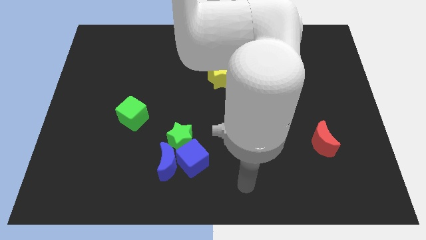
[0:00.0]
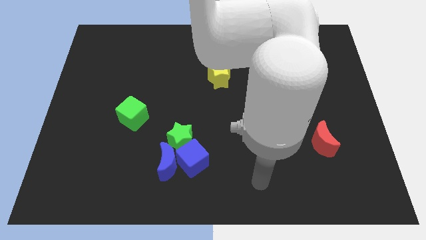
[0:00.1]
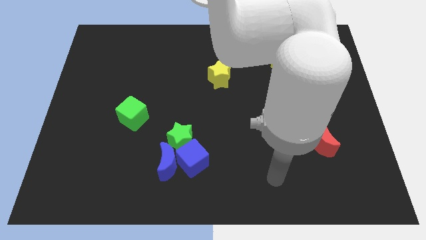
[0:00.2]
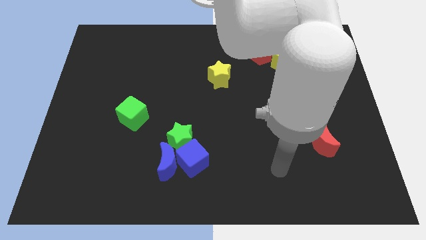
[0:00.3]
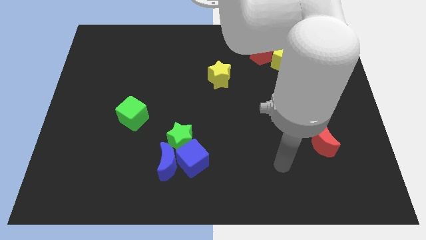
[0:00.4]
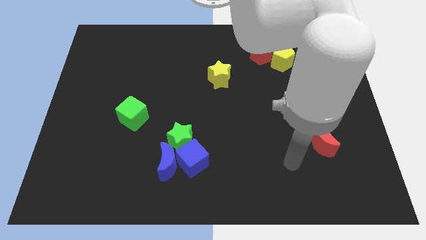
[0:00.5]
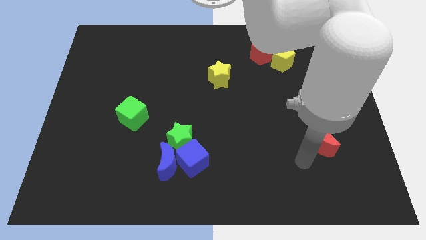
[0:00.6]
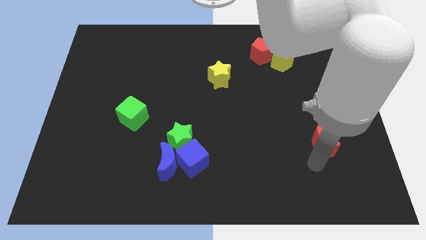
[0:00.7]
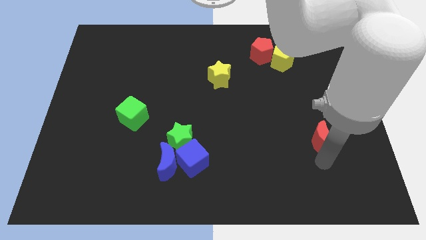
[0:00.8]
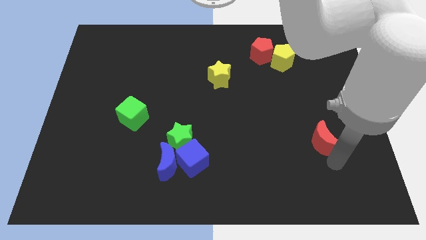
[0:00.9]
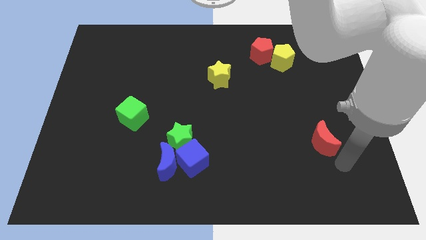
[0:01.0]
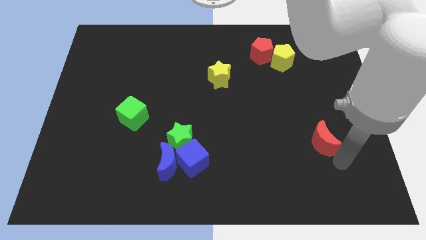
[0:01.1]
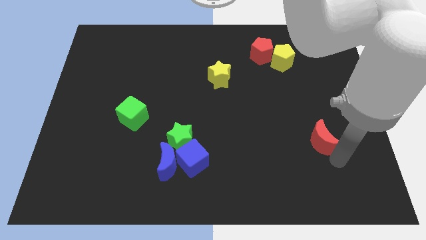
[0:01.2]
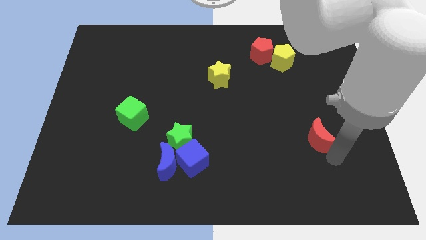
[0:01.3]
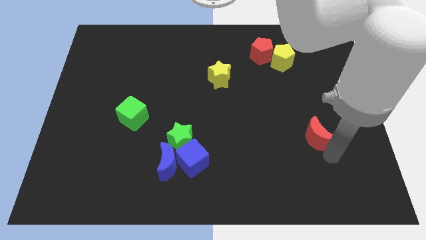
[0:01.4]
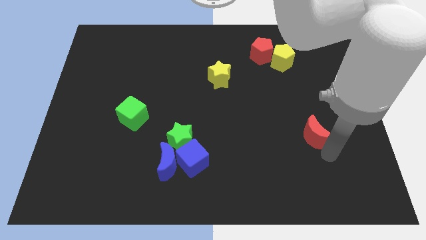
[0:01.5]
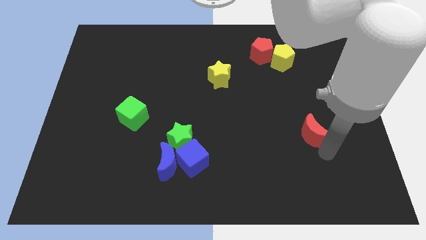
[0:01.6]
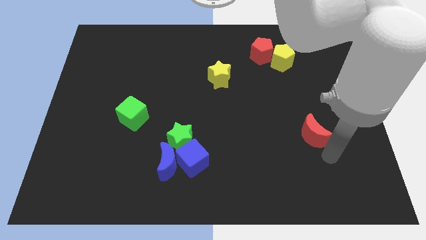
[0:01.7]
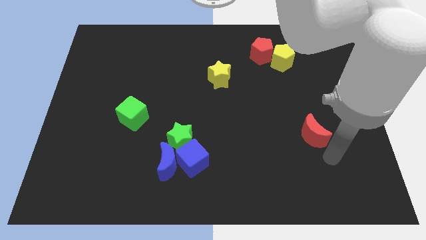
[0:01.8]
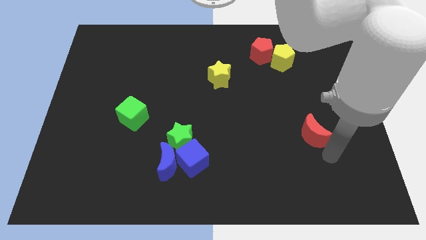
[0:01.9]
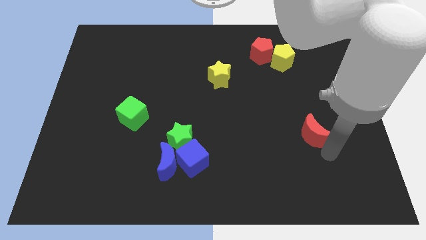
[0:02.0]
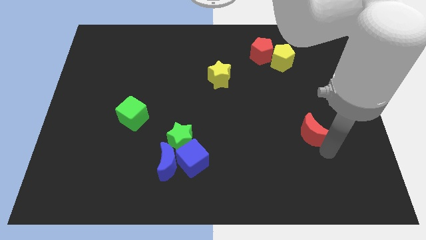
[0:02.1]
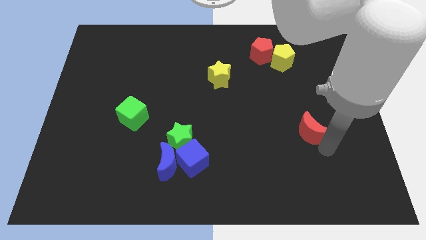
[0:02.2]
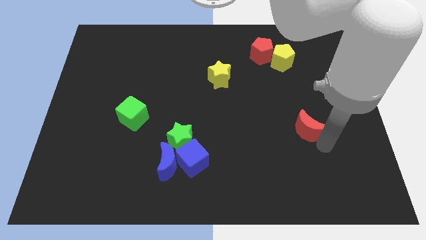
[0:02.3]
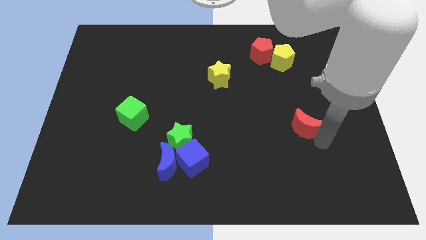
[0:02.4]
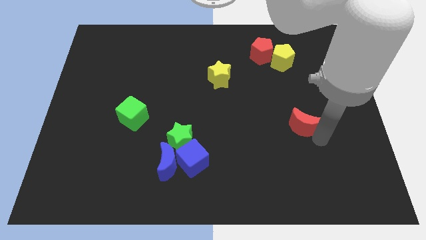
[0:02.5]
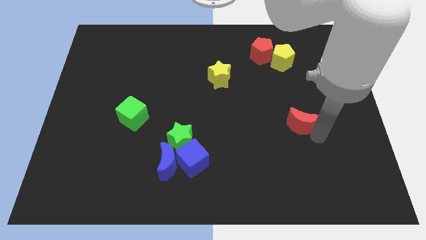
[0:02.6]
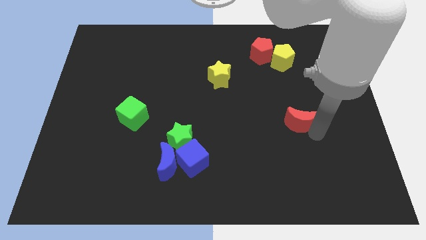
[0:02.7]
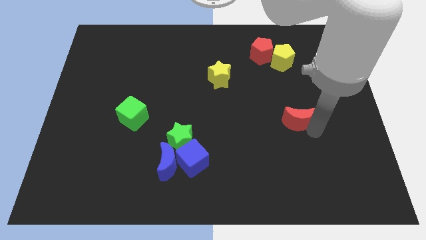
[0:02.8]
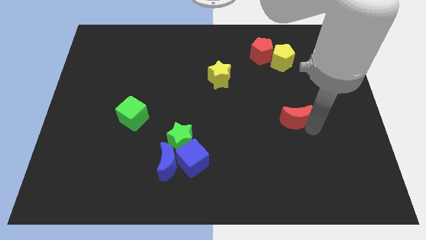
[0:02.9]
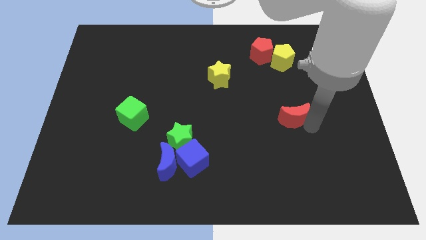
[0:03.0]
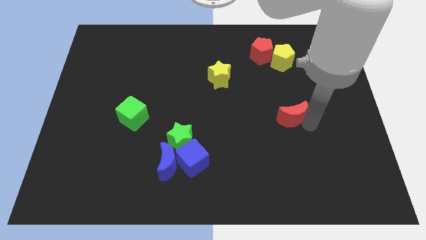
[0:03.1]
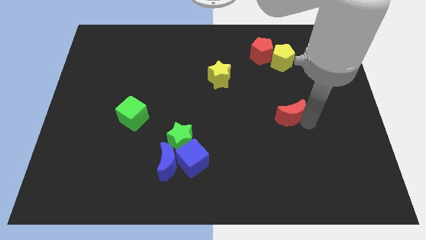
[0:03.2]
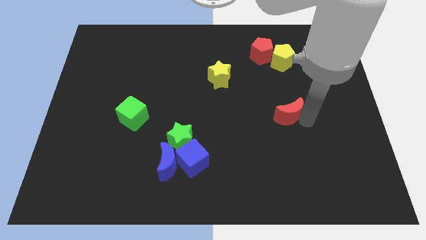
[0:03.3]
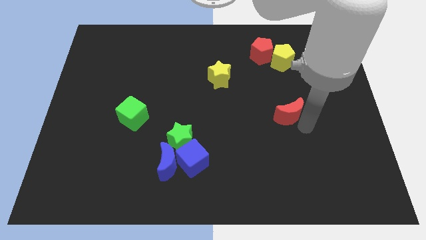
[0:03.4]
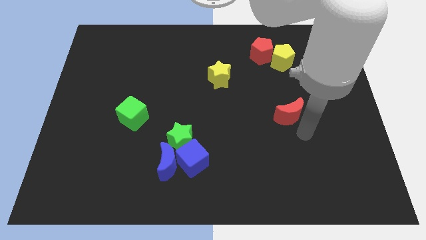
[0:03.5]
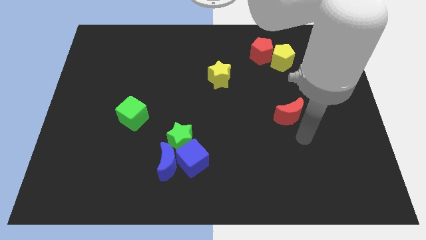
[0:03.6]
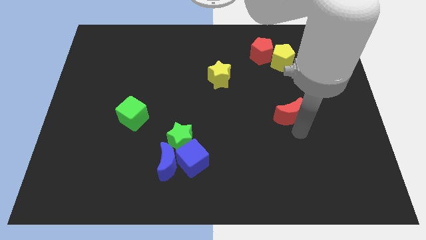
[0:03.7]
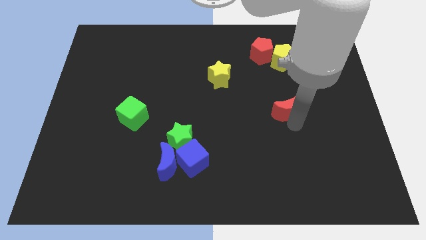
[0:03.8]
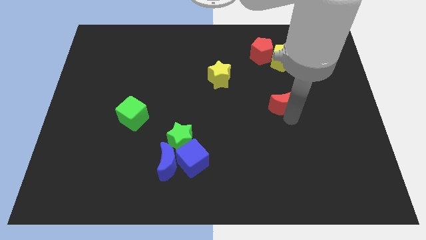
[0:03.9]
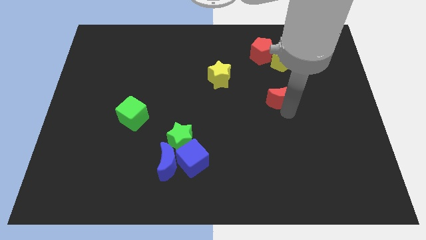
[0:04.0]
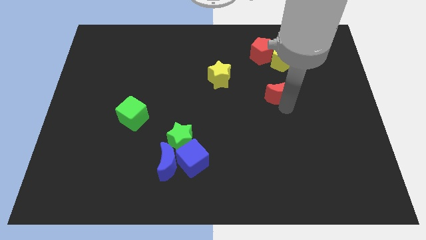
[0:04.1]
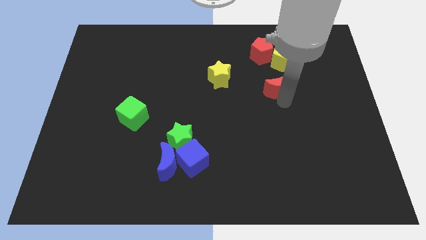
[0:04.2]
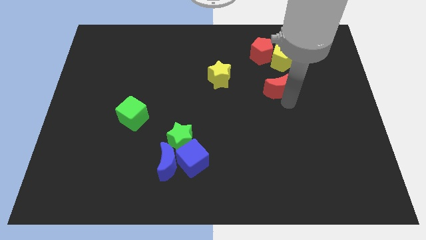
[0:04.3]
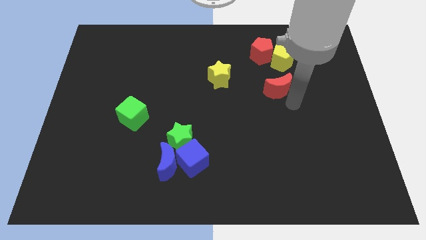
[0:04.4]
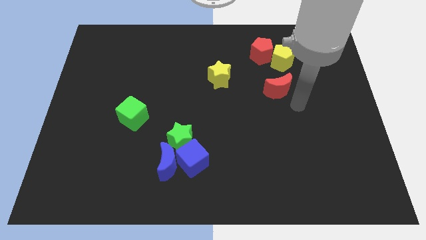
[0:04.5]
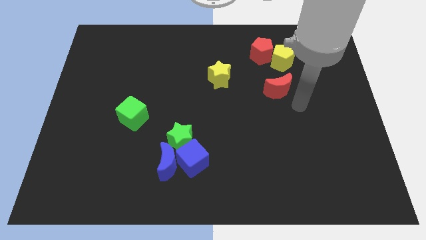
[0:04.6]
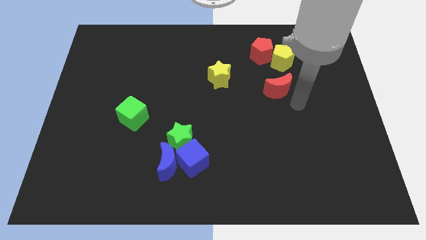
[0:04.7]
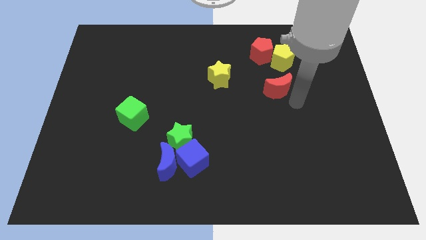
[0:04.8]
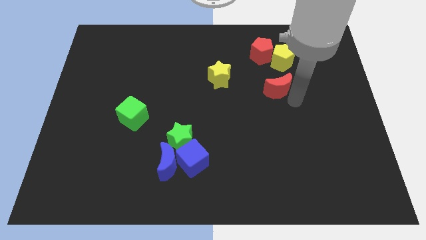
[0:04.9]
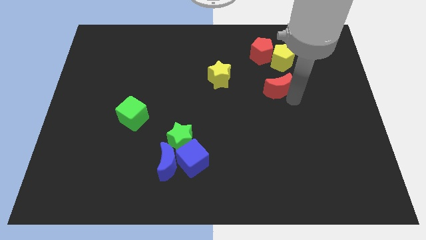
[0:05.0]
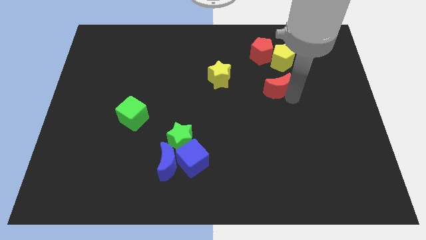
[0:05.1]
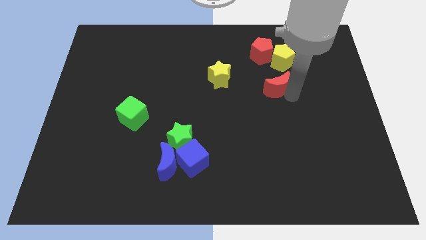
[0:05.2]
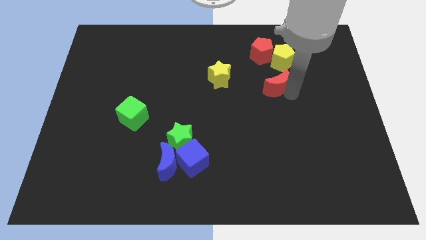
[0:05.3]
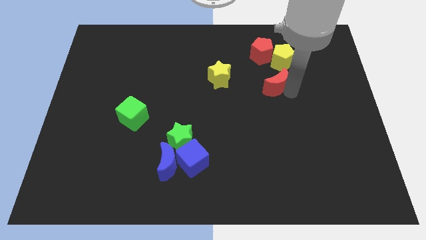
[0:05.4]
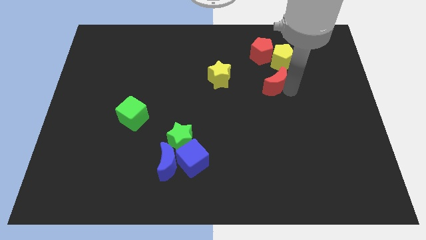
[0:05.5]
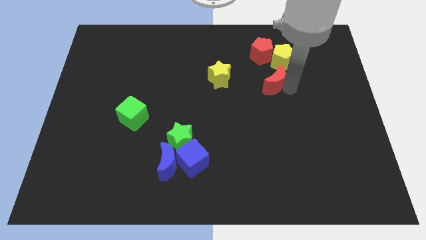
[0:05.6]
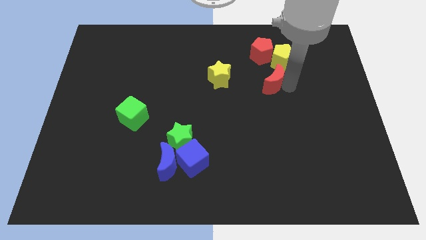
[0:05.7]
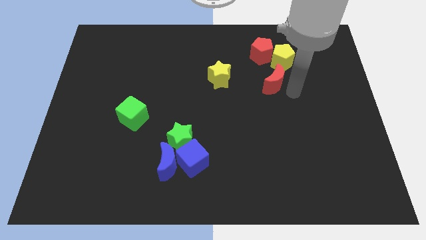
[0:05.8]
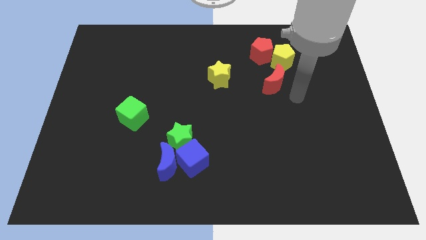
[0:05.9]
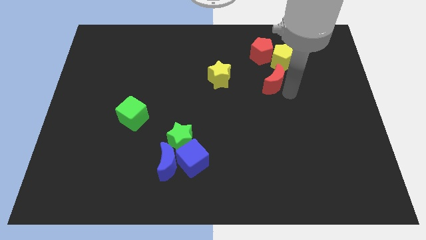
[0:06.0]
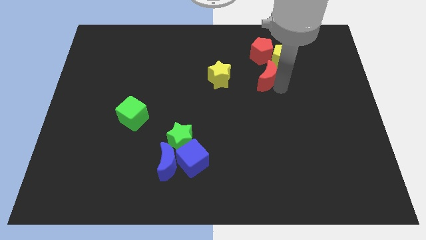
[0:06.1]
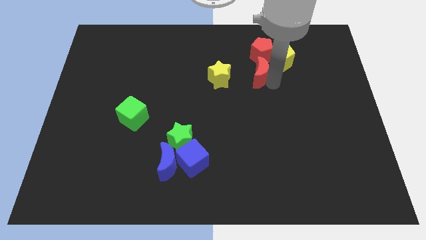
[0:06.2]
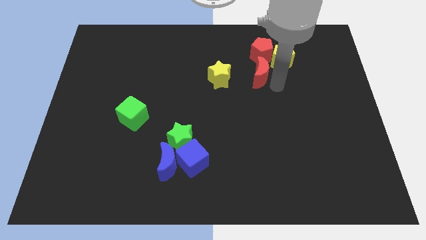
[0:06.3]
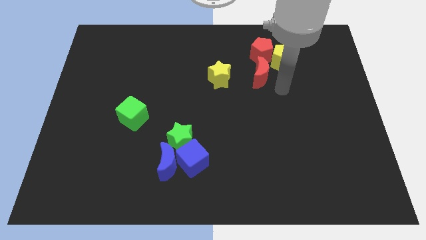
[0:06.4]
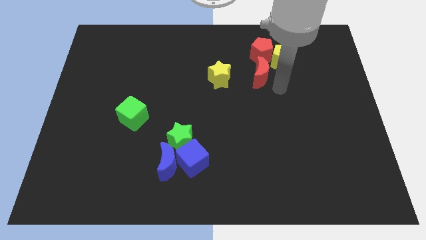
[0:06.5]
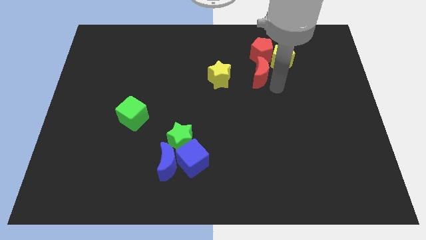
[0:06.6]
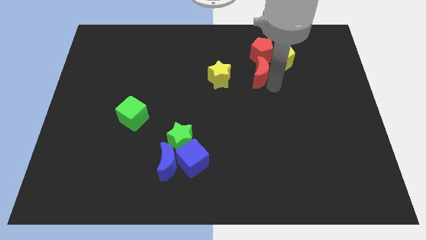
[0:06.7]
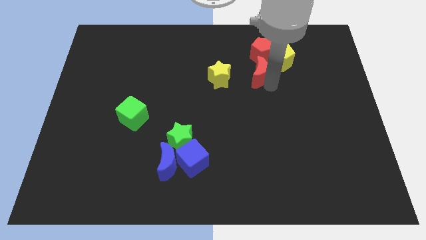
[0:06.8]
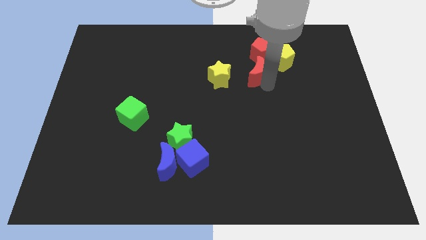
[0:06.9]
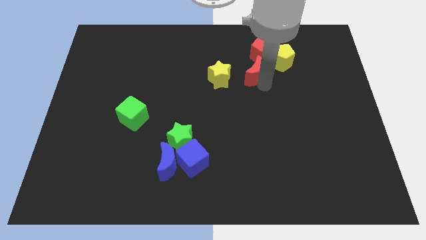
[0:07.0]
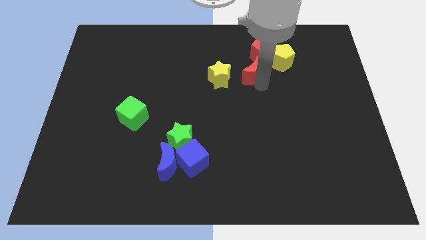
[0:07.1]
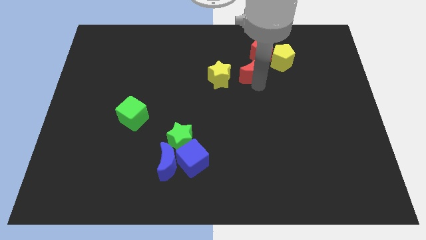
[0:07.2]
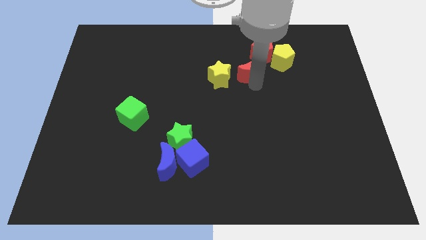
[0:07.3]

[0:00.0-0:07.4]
slide the red moon to the top right of the yellow star
